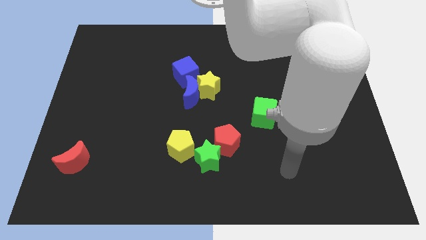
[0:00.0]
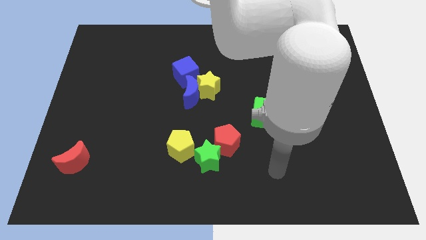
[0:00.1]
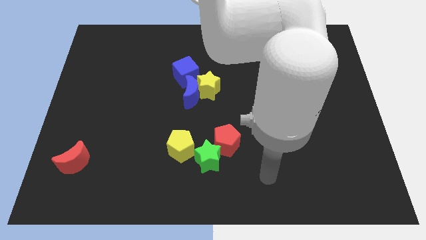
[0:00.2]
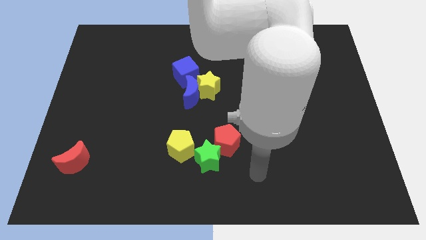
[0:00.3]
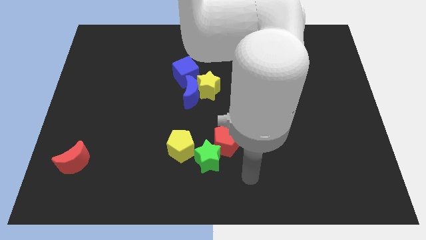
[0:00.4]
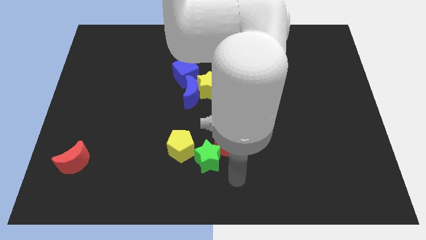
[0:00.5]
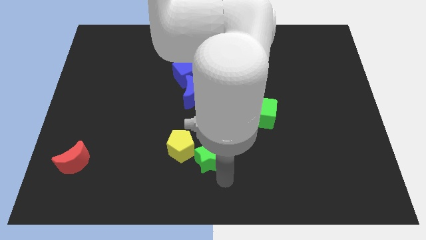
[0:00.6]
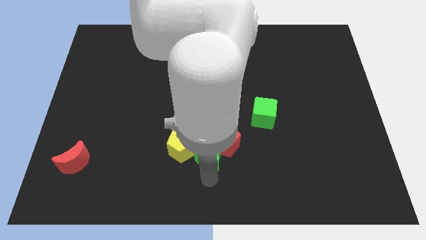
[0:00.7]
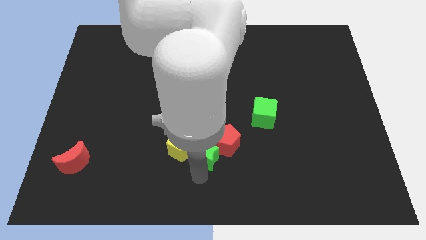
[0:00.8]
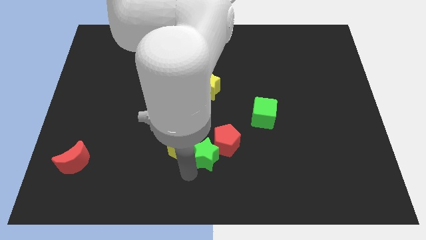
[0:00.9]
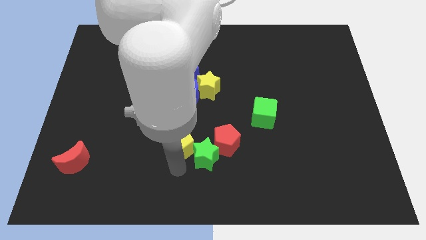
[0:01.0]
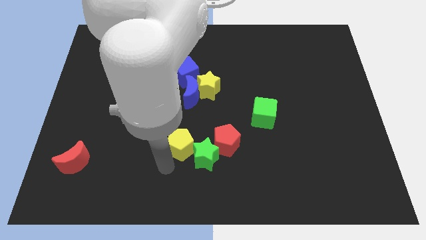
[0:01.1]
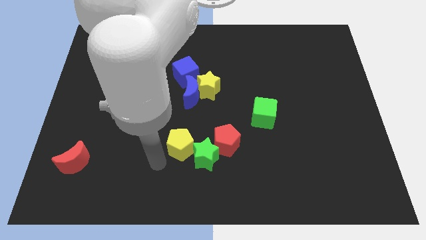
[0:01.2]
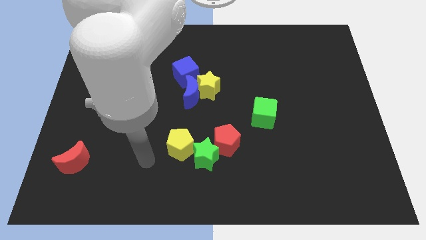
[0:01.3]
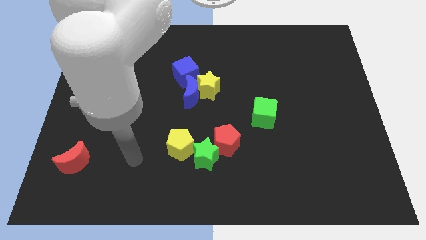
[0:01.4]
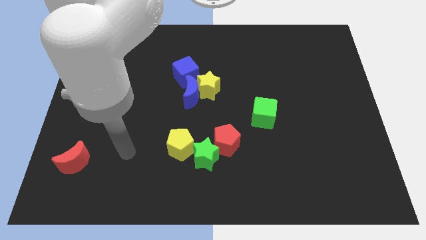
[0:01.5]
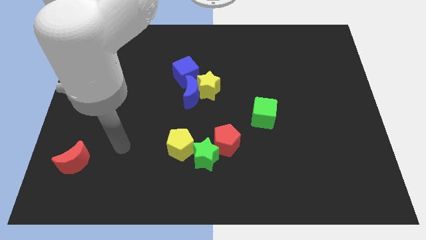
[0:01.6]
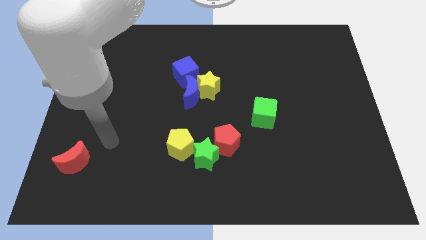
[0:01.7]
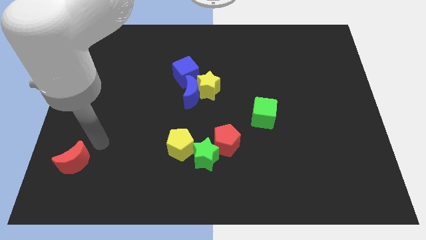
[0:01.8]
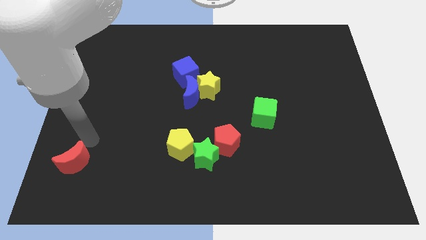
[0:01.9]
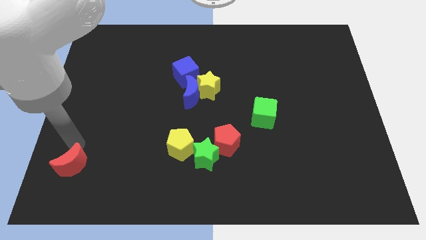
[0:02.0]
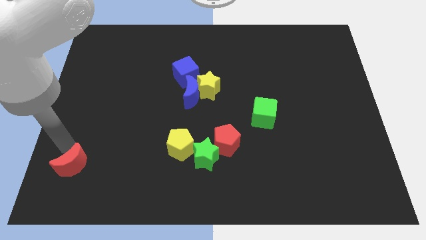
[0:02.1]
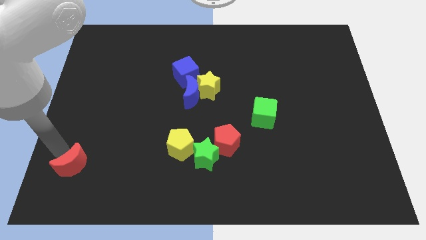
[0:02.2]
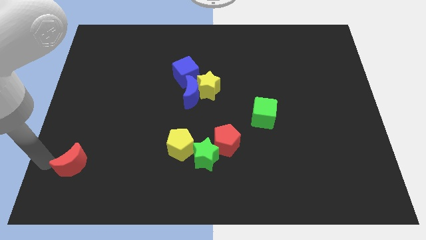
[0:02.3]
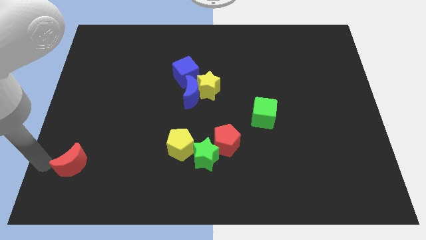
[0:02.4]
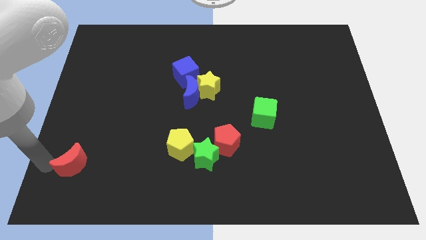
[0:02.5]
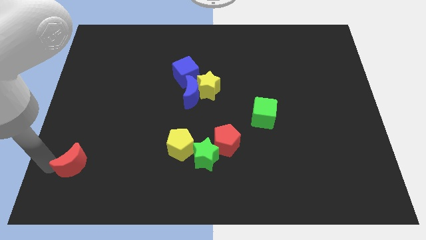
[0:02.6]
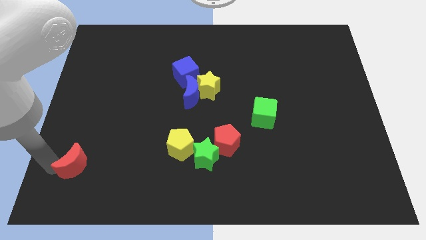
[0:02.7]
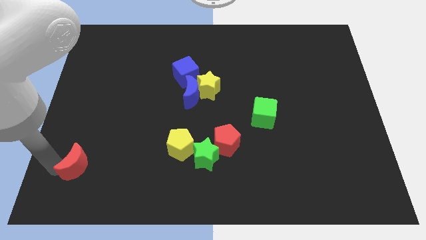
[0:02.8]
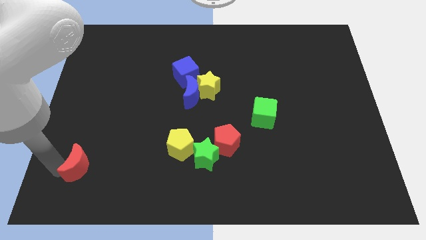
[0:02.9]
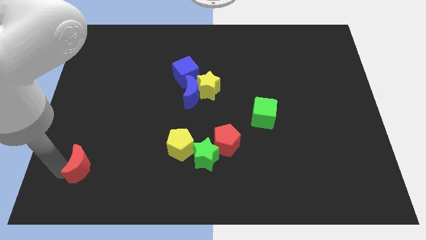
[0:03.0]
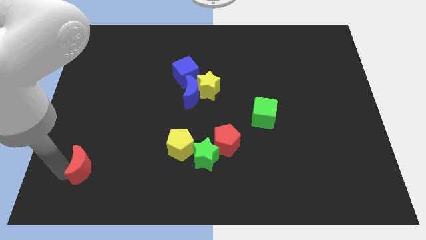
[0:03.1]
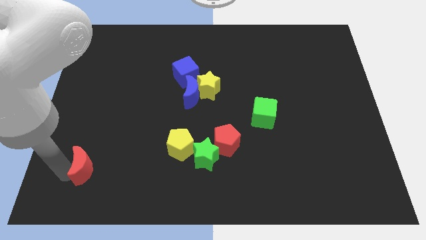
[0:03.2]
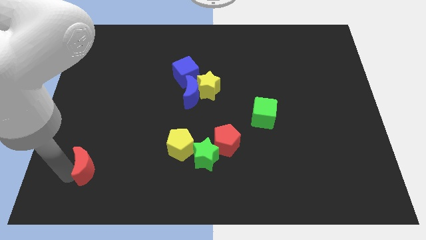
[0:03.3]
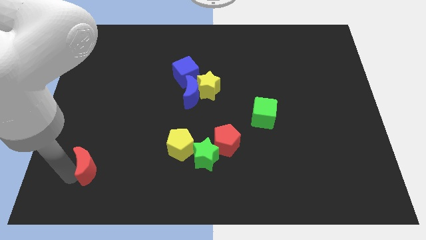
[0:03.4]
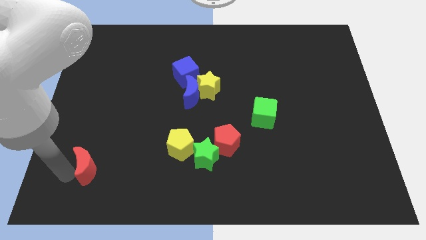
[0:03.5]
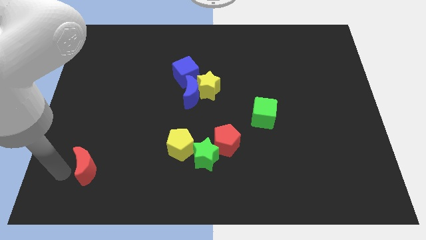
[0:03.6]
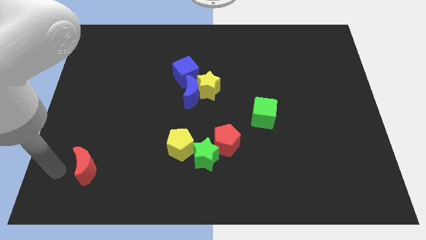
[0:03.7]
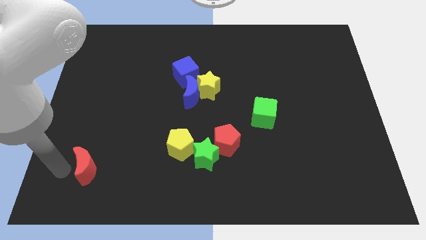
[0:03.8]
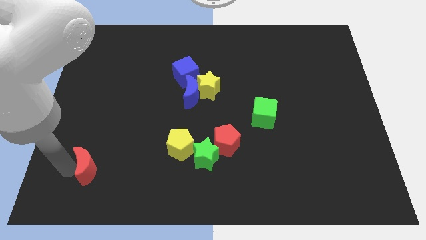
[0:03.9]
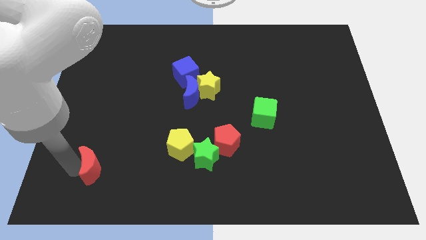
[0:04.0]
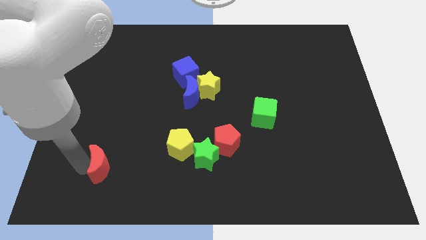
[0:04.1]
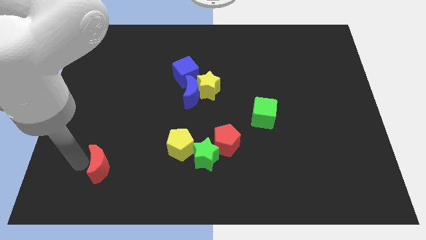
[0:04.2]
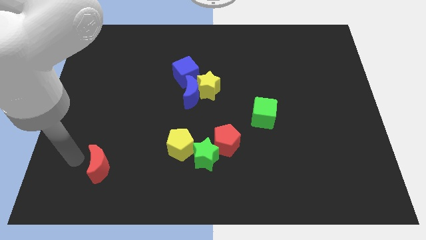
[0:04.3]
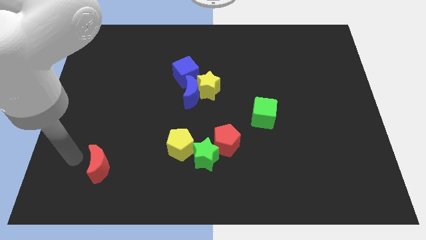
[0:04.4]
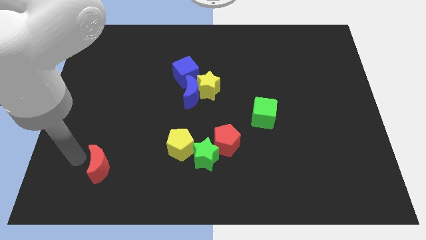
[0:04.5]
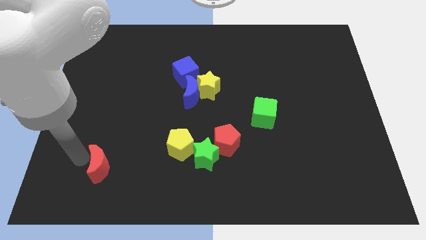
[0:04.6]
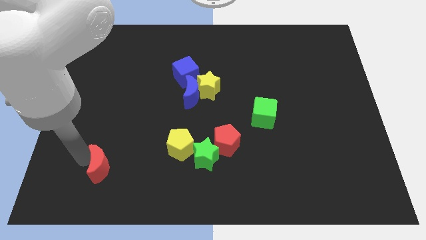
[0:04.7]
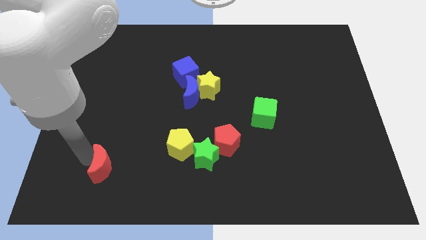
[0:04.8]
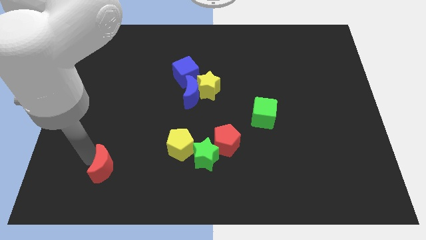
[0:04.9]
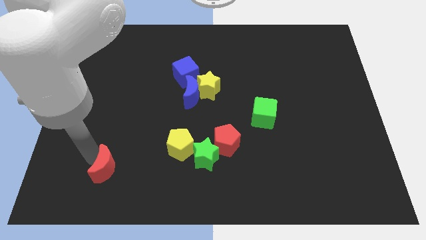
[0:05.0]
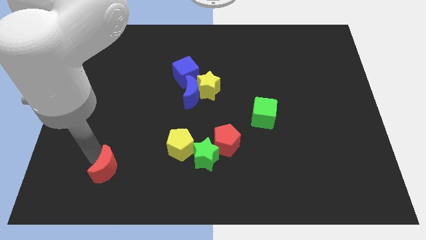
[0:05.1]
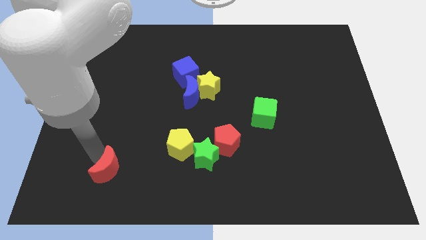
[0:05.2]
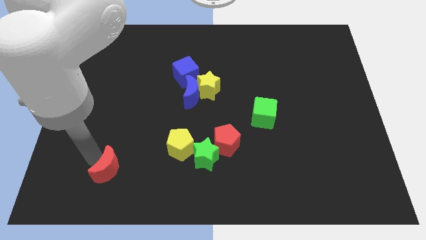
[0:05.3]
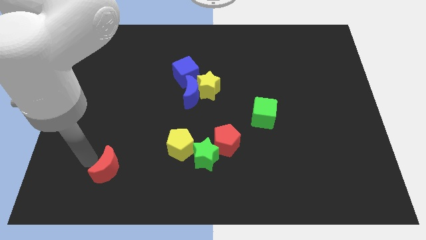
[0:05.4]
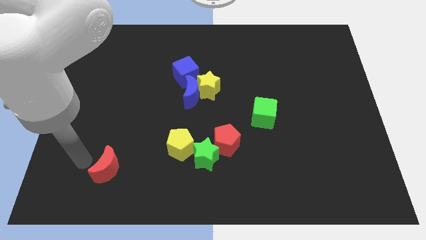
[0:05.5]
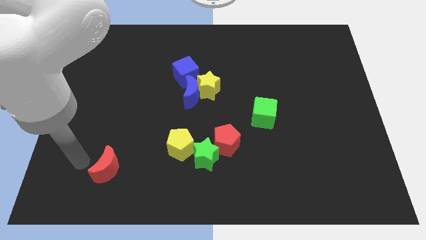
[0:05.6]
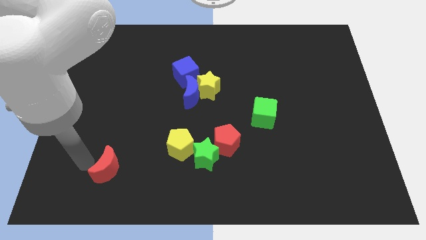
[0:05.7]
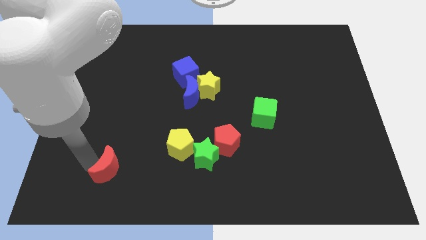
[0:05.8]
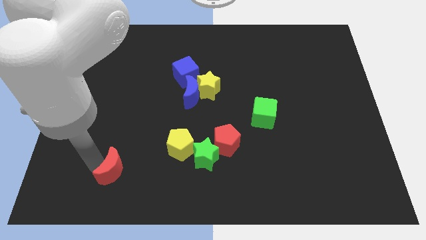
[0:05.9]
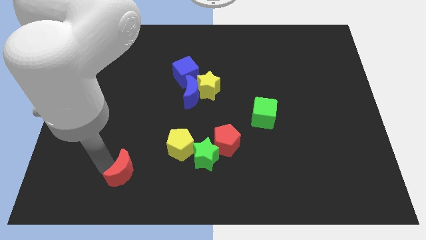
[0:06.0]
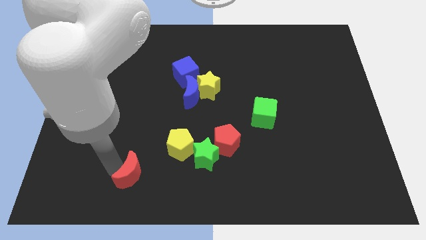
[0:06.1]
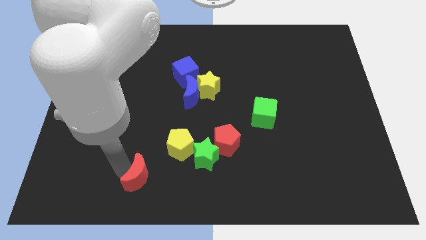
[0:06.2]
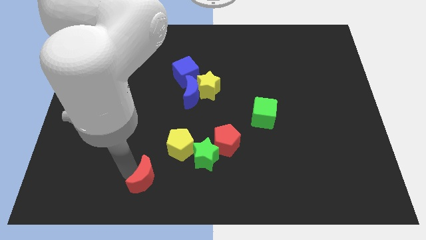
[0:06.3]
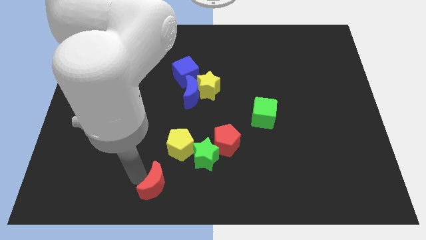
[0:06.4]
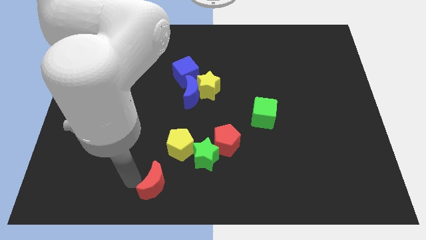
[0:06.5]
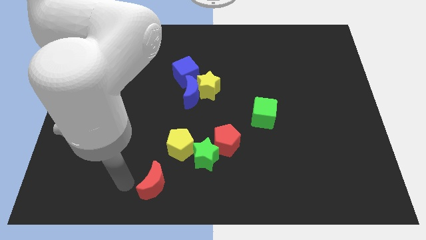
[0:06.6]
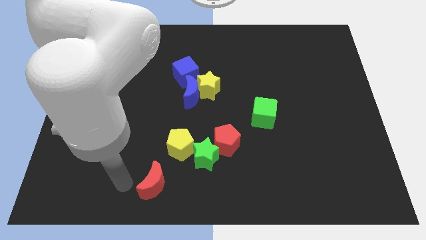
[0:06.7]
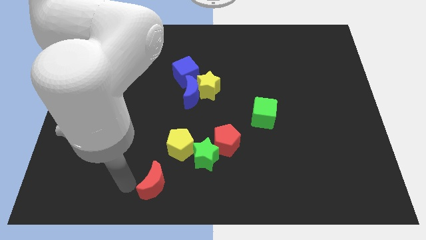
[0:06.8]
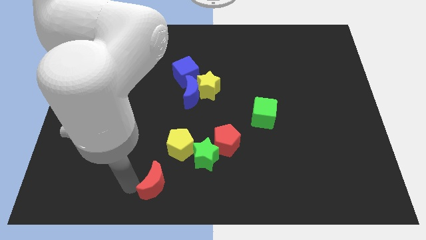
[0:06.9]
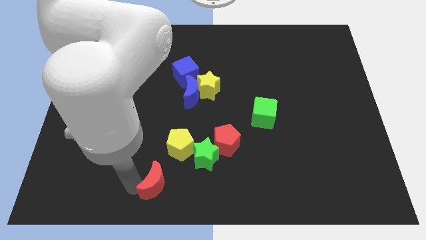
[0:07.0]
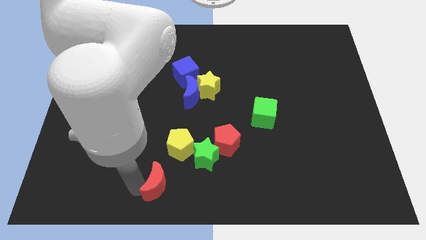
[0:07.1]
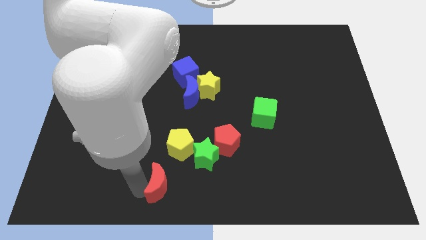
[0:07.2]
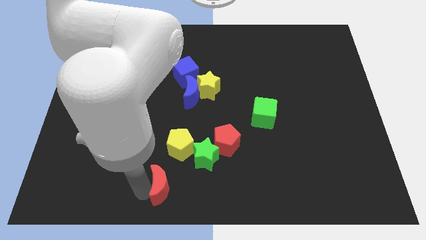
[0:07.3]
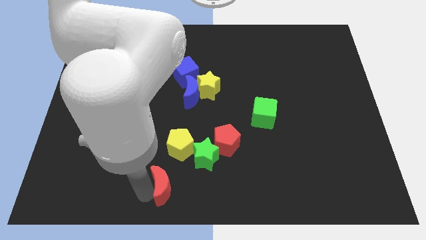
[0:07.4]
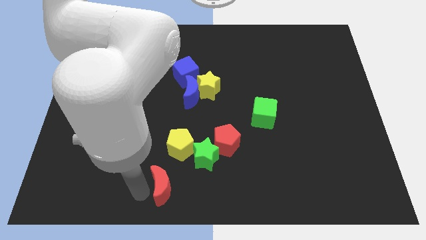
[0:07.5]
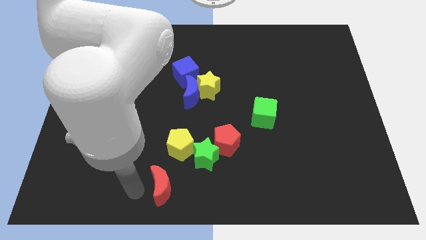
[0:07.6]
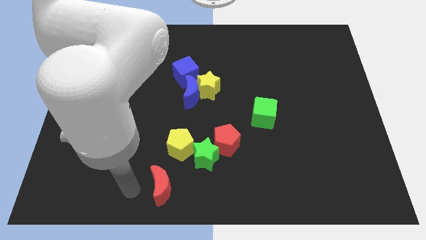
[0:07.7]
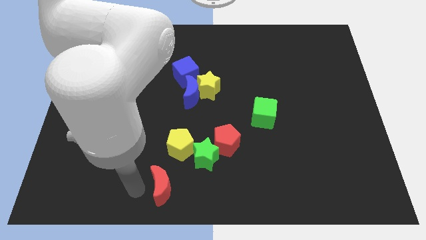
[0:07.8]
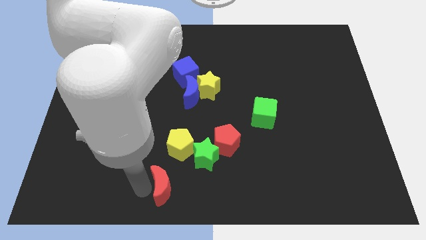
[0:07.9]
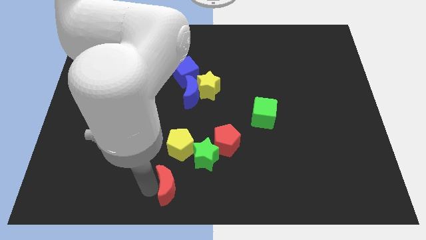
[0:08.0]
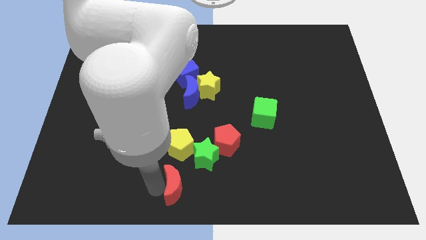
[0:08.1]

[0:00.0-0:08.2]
slide the red moon to the right

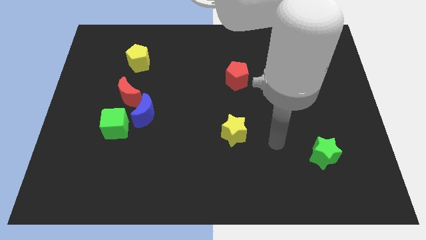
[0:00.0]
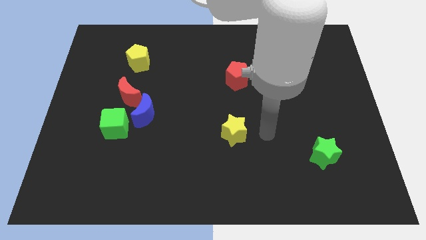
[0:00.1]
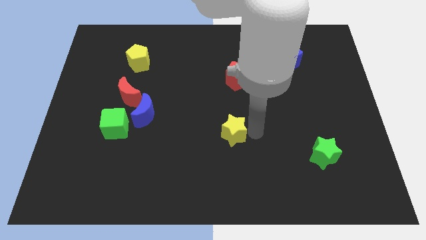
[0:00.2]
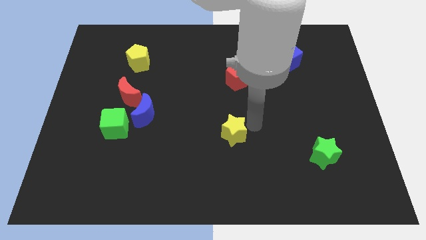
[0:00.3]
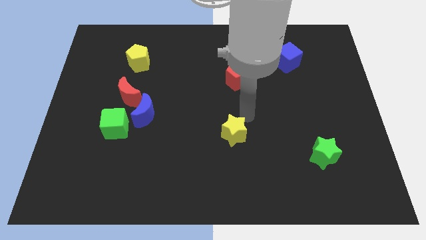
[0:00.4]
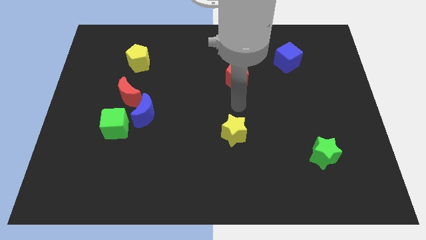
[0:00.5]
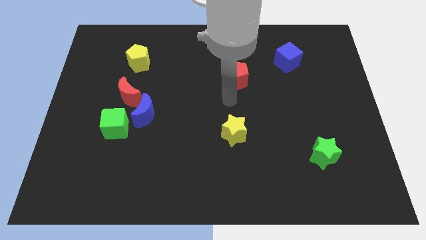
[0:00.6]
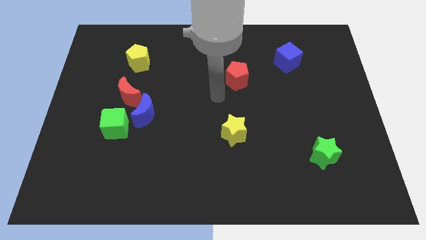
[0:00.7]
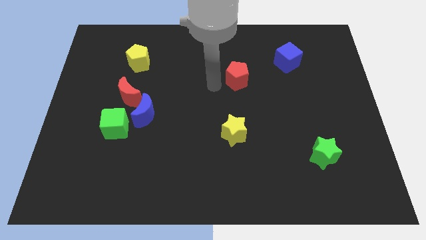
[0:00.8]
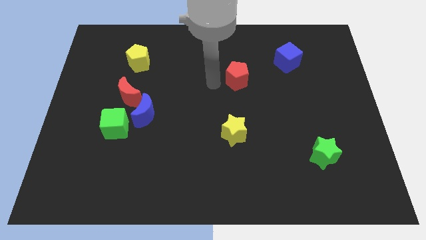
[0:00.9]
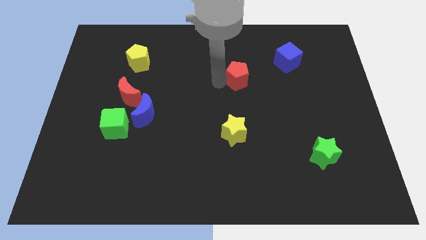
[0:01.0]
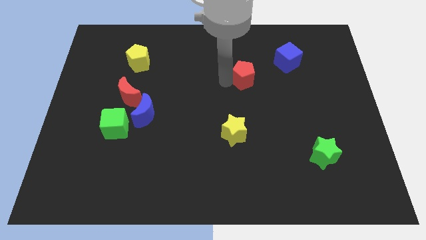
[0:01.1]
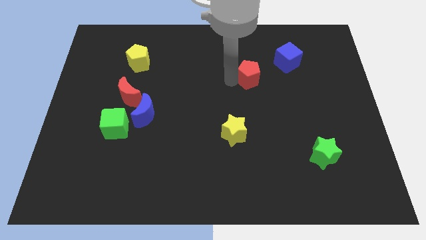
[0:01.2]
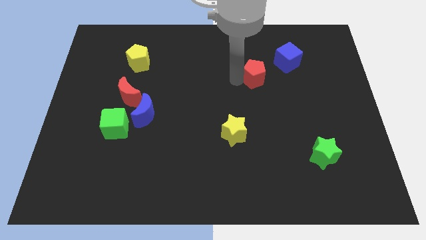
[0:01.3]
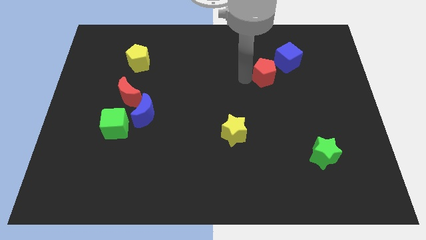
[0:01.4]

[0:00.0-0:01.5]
slightly slide the red pentagon to the right
